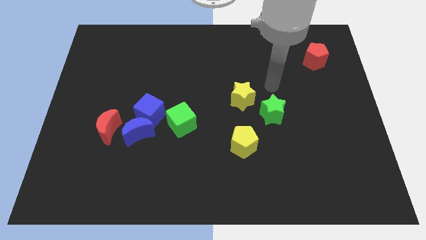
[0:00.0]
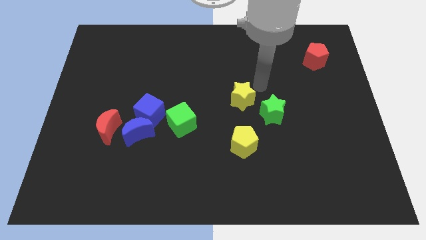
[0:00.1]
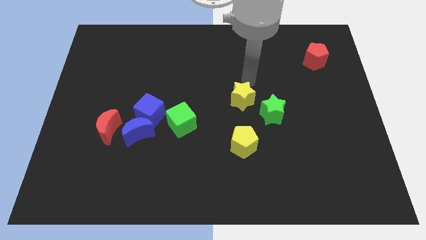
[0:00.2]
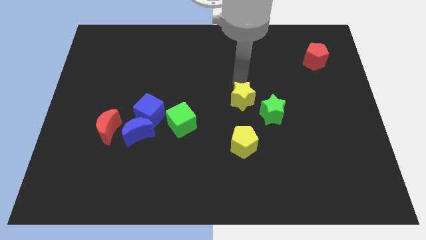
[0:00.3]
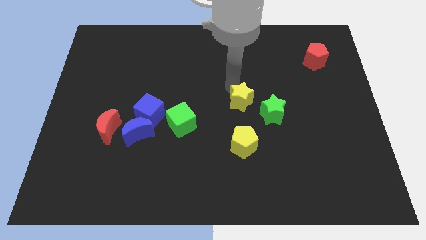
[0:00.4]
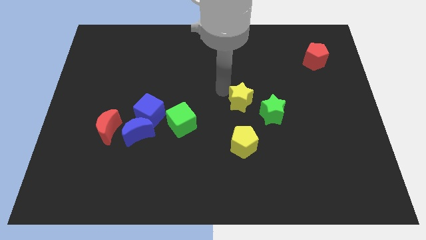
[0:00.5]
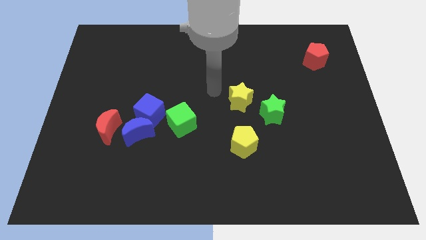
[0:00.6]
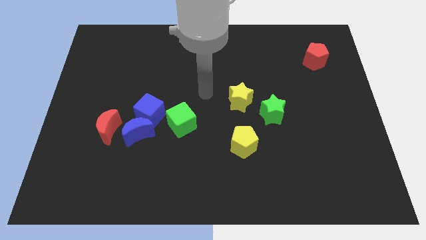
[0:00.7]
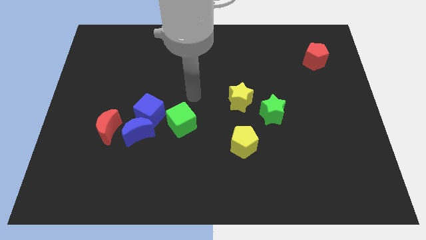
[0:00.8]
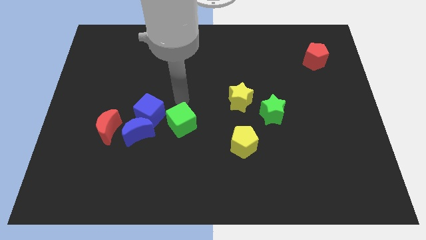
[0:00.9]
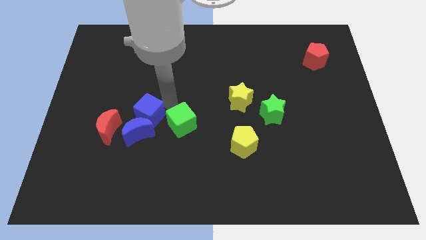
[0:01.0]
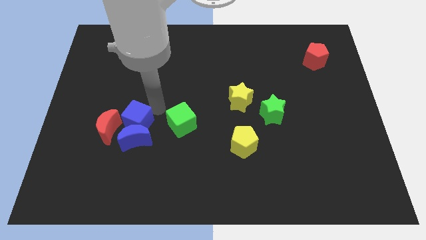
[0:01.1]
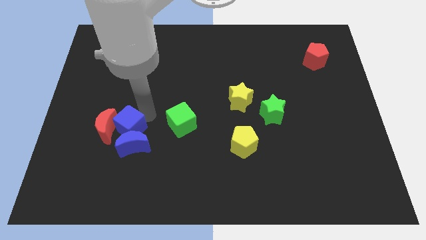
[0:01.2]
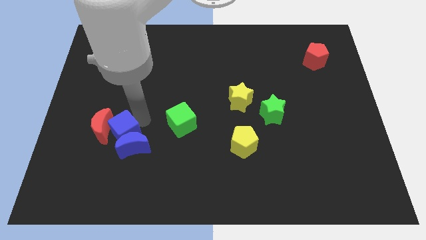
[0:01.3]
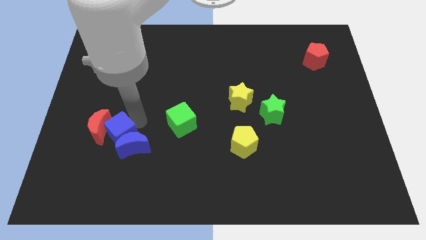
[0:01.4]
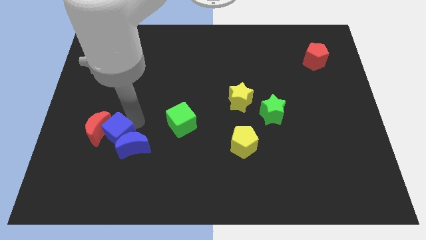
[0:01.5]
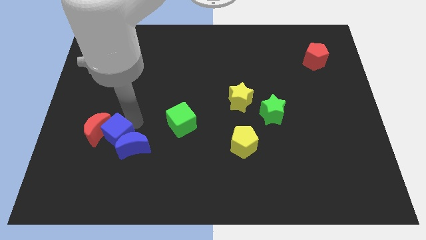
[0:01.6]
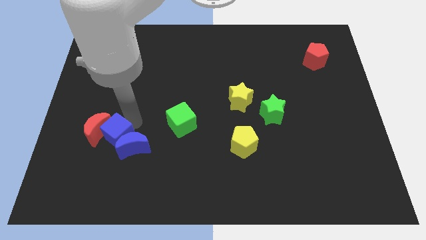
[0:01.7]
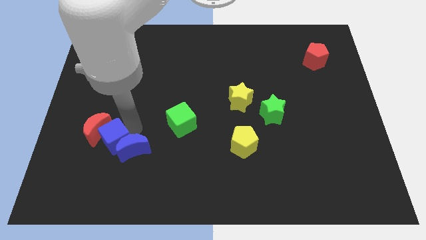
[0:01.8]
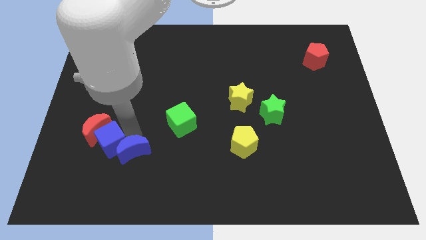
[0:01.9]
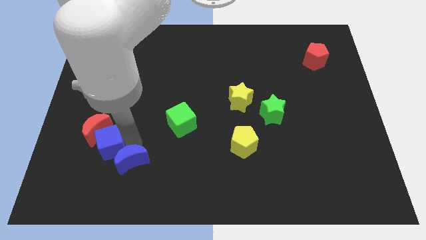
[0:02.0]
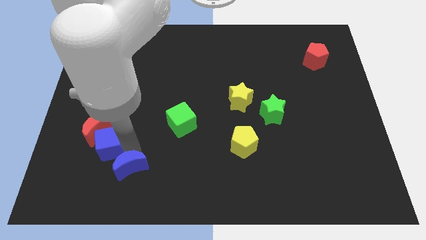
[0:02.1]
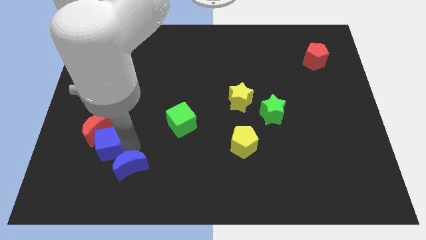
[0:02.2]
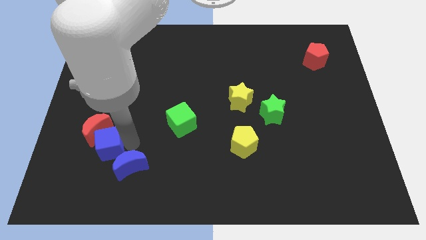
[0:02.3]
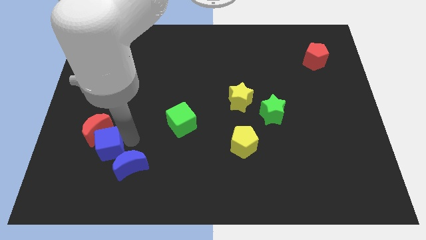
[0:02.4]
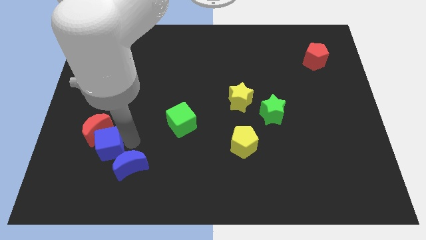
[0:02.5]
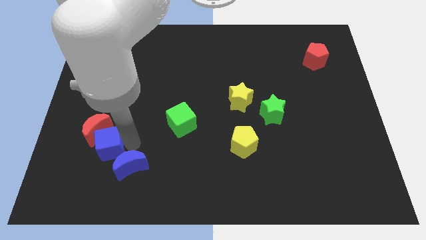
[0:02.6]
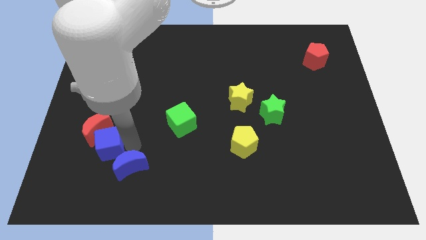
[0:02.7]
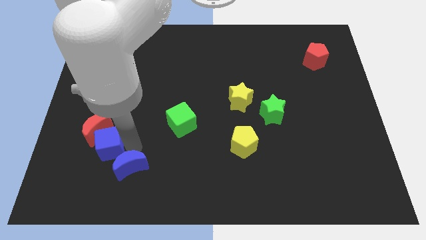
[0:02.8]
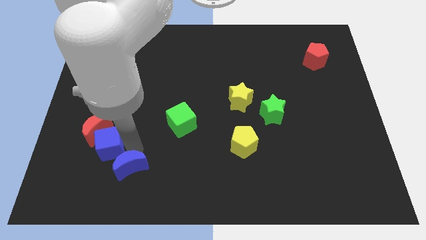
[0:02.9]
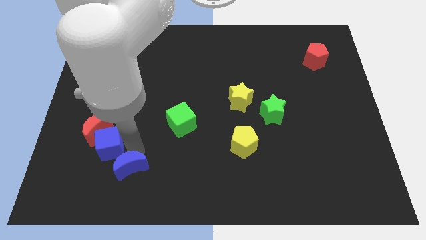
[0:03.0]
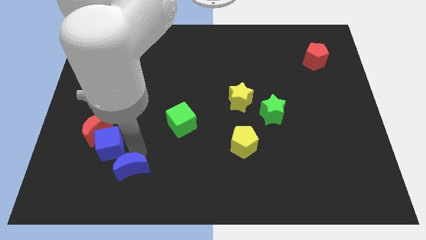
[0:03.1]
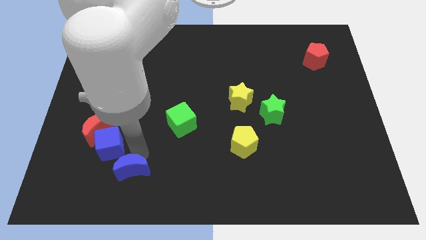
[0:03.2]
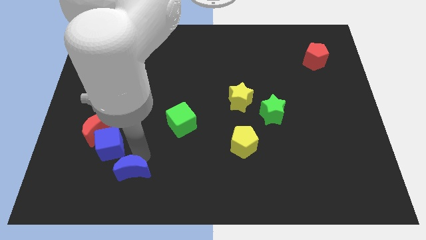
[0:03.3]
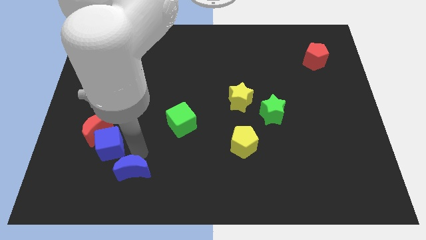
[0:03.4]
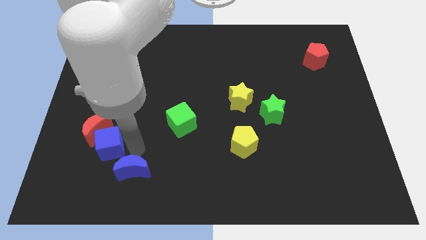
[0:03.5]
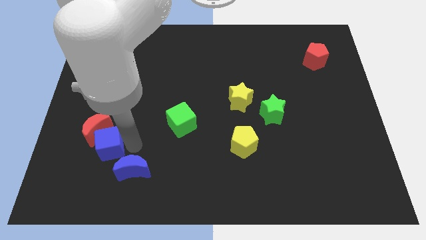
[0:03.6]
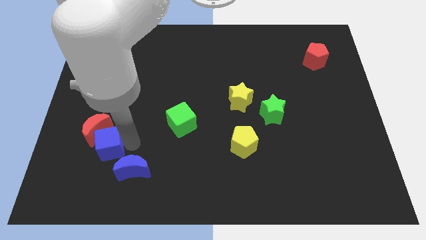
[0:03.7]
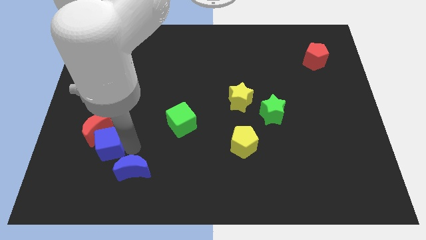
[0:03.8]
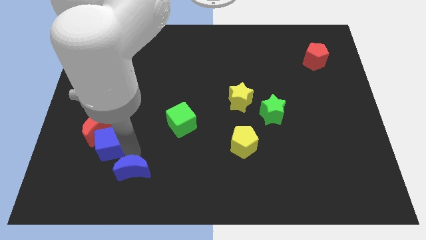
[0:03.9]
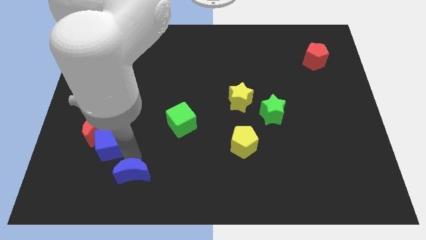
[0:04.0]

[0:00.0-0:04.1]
pull the blue moon apart from the clump

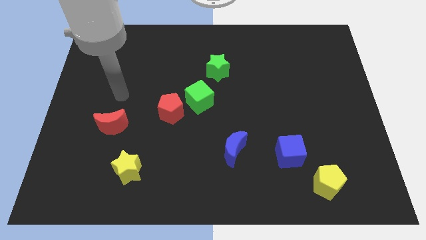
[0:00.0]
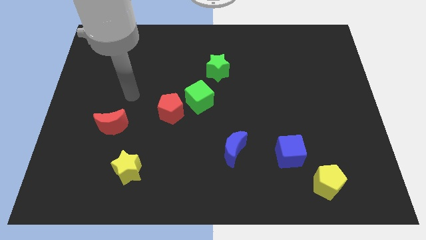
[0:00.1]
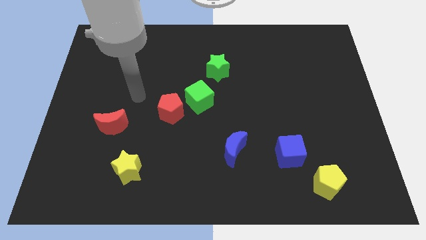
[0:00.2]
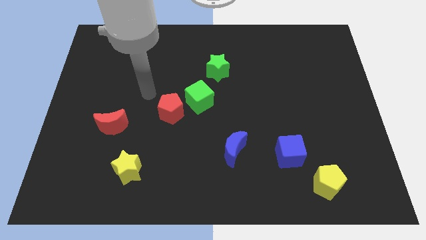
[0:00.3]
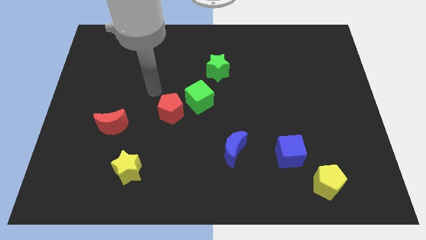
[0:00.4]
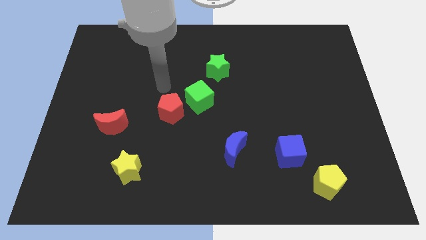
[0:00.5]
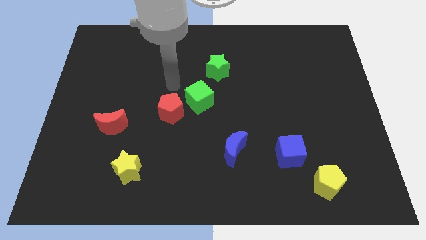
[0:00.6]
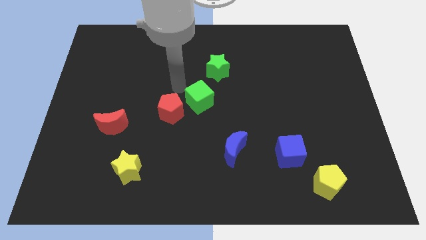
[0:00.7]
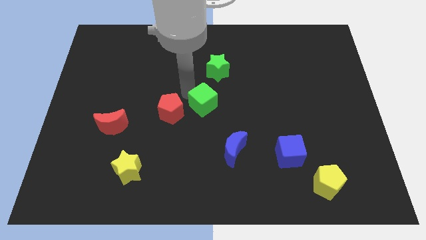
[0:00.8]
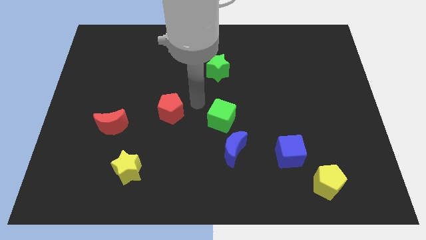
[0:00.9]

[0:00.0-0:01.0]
move the red pentagon away from the green cube

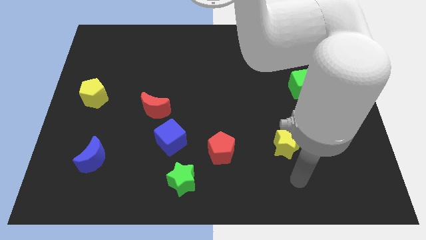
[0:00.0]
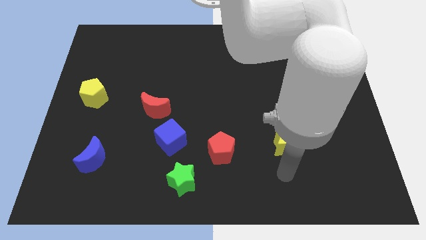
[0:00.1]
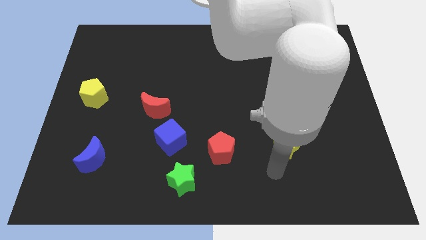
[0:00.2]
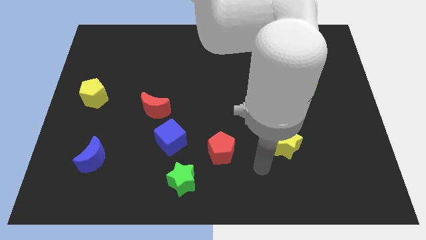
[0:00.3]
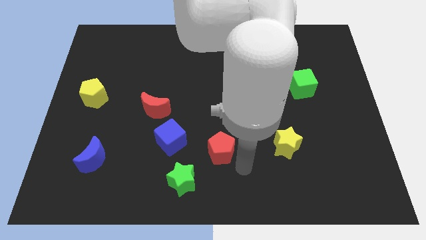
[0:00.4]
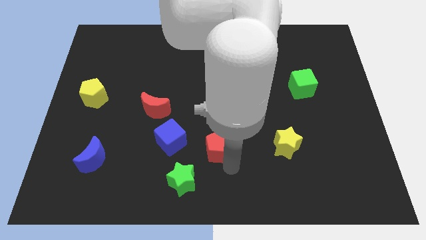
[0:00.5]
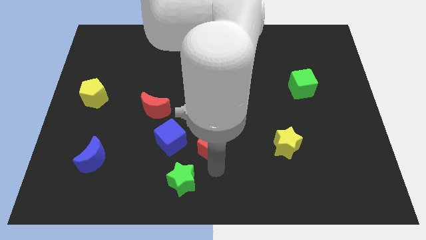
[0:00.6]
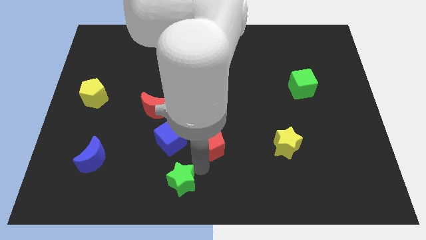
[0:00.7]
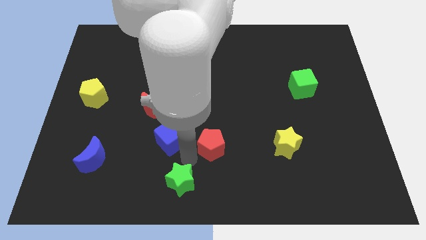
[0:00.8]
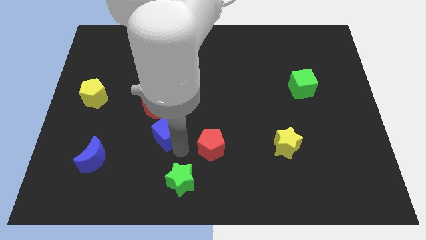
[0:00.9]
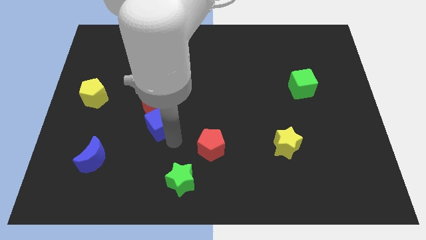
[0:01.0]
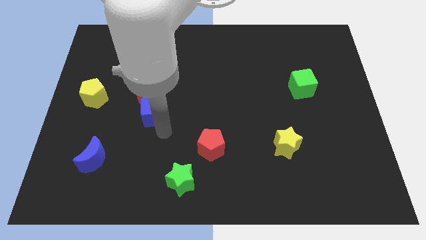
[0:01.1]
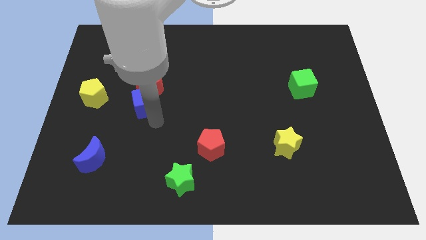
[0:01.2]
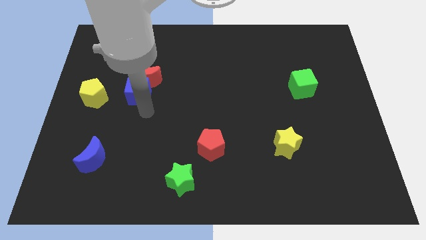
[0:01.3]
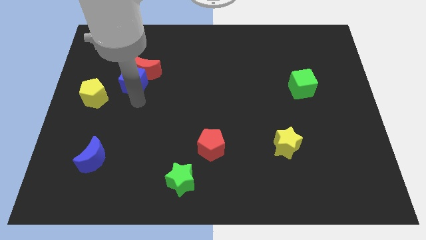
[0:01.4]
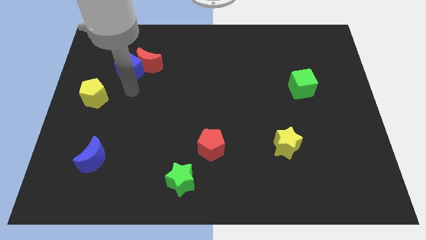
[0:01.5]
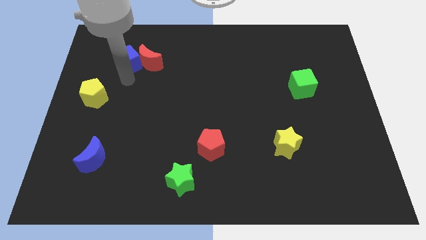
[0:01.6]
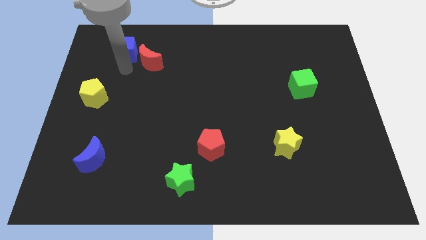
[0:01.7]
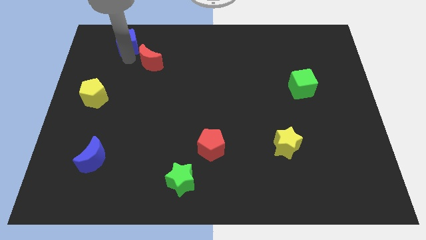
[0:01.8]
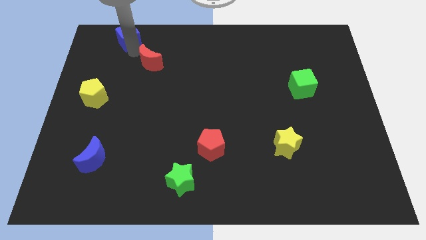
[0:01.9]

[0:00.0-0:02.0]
move the red moon away from the blue cube

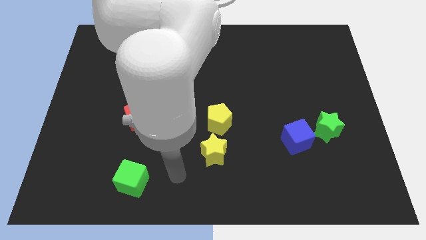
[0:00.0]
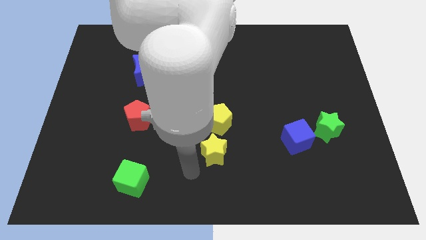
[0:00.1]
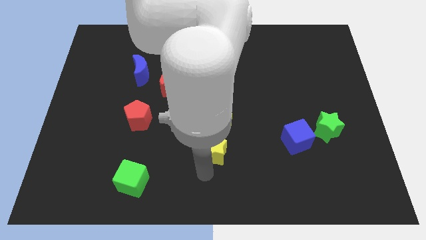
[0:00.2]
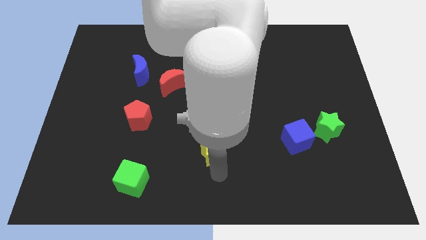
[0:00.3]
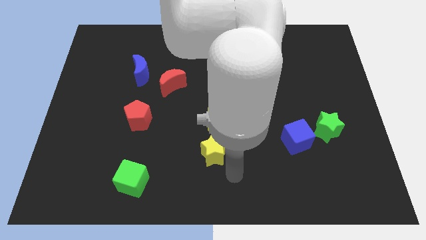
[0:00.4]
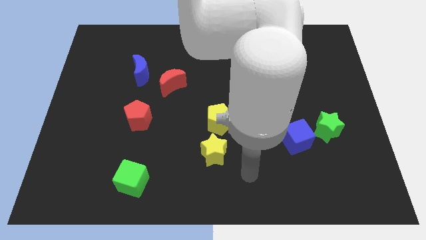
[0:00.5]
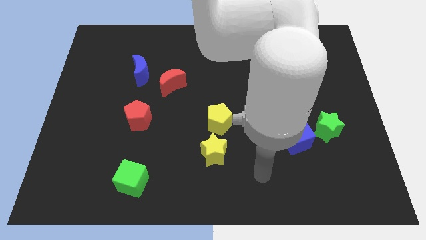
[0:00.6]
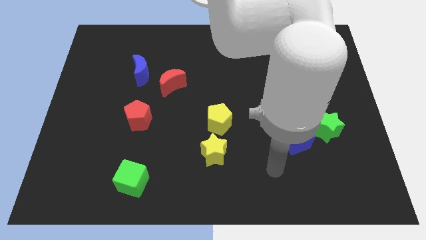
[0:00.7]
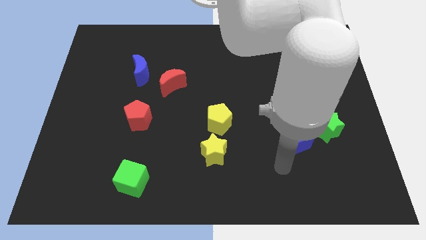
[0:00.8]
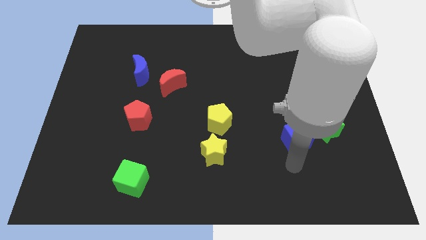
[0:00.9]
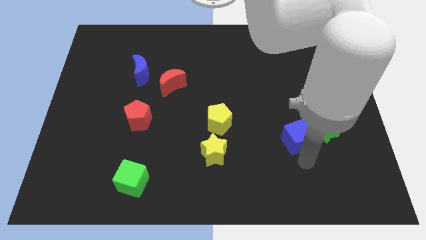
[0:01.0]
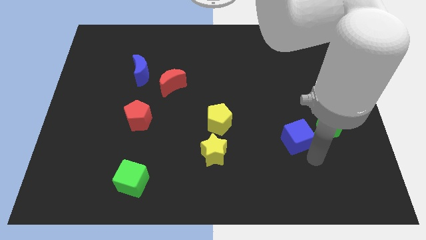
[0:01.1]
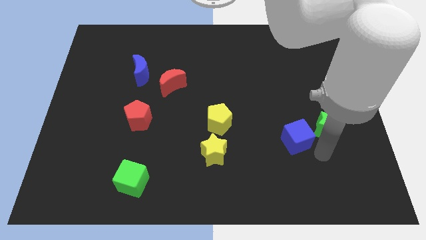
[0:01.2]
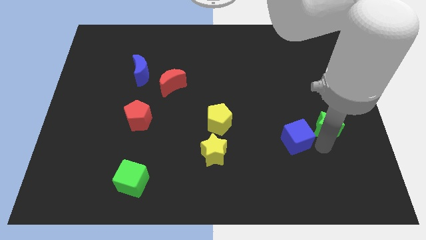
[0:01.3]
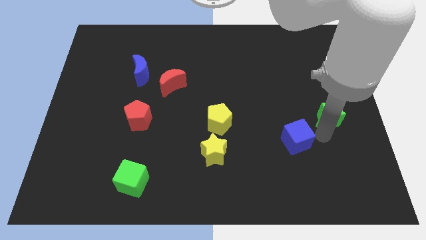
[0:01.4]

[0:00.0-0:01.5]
move the blue cube away from the green star

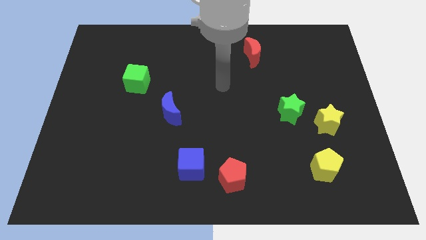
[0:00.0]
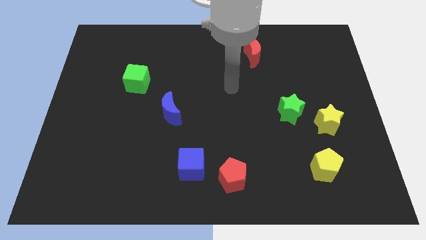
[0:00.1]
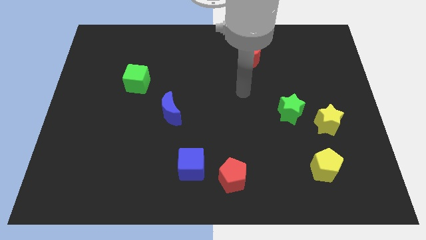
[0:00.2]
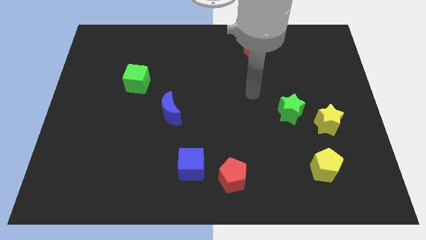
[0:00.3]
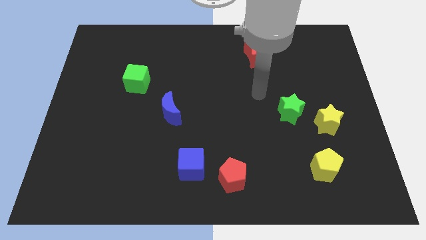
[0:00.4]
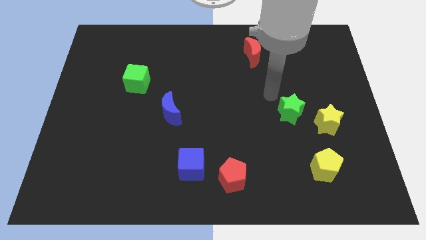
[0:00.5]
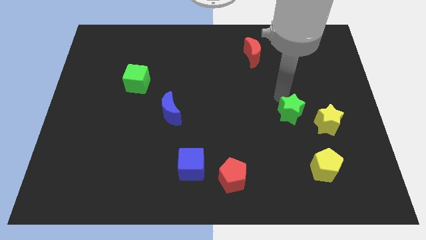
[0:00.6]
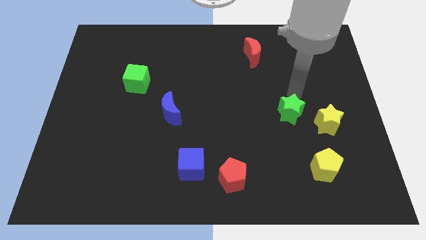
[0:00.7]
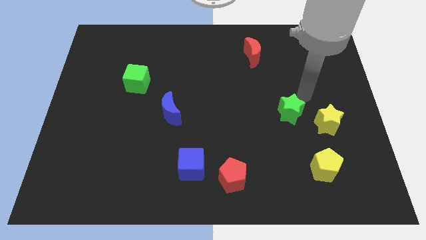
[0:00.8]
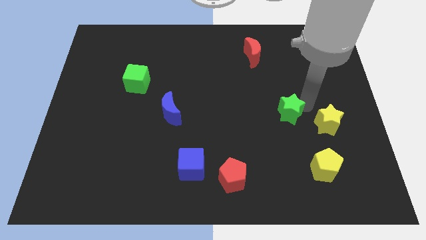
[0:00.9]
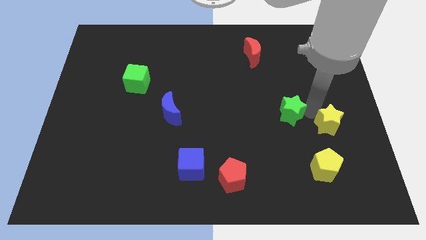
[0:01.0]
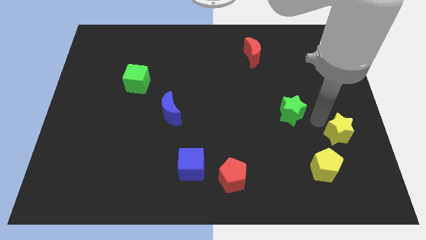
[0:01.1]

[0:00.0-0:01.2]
pull the green star apart from the yellow star
